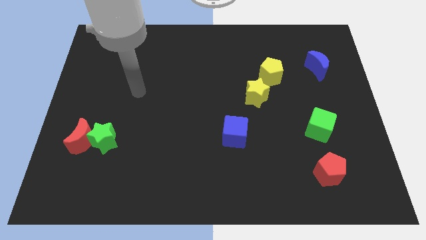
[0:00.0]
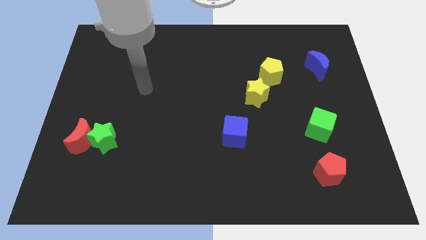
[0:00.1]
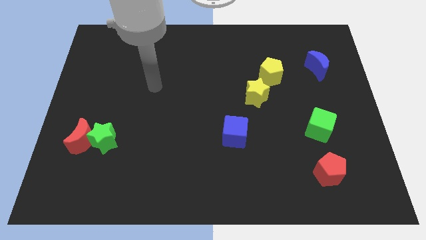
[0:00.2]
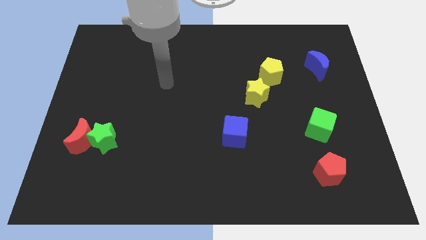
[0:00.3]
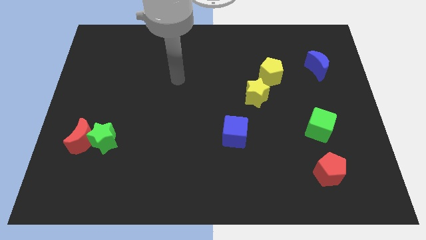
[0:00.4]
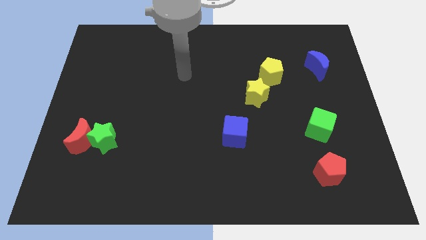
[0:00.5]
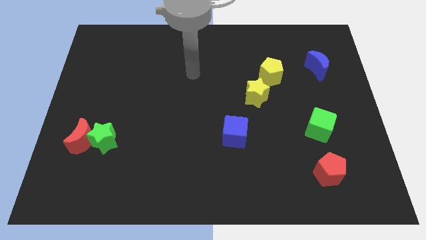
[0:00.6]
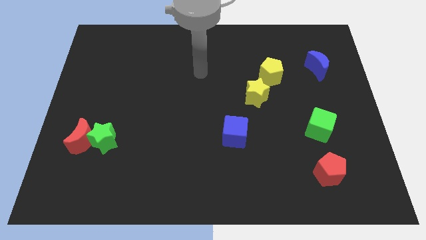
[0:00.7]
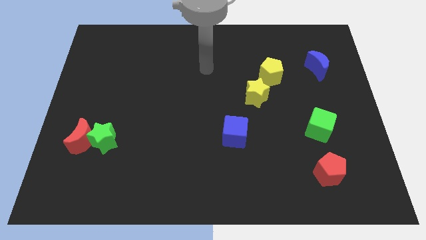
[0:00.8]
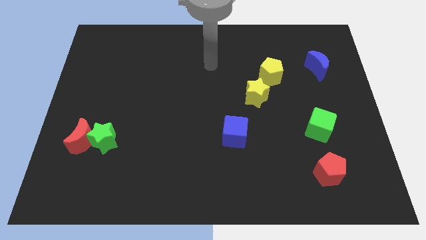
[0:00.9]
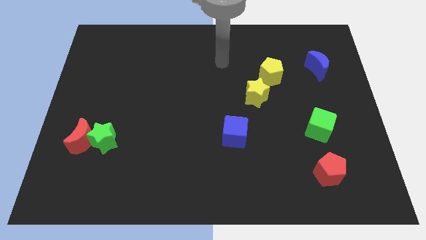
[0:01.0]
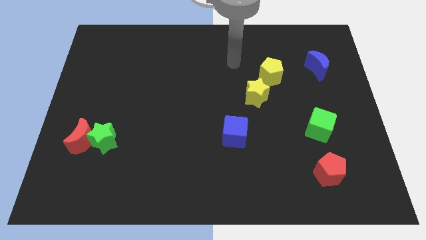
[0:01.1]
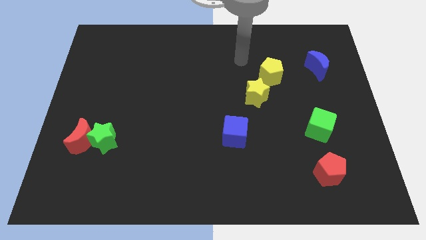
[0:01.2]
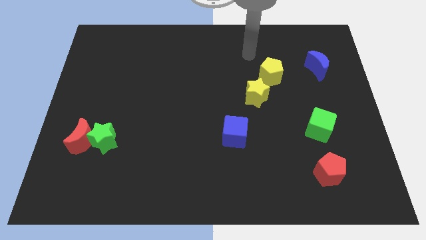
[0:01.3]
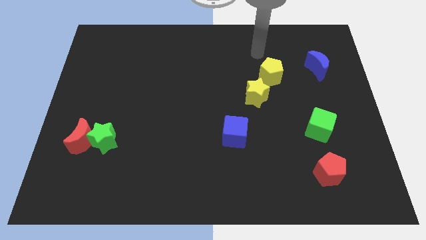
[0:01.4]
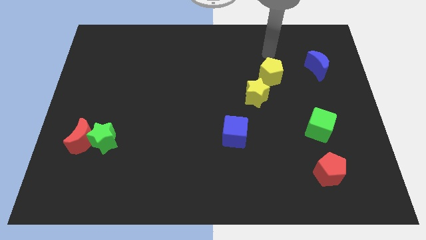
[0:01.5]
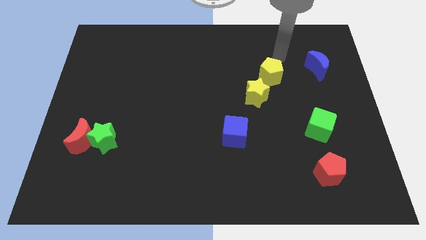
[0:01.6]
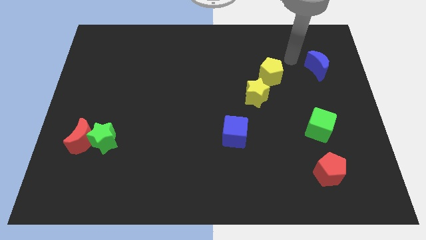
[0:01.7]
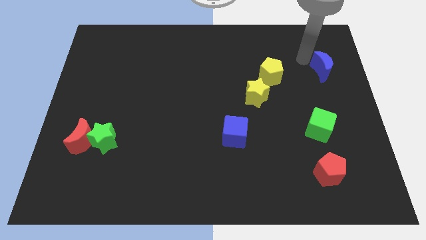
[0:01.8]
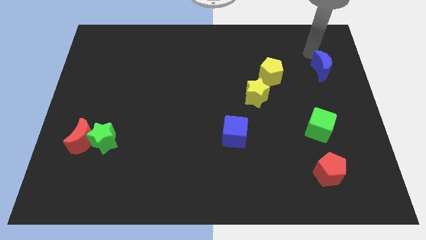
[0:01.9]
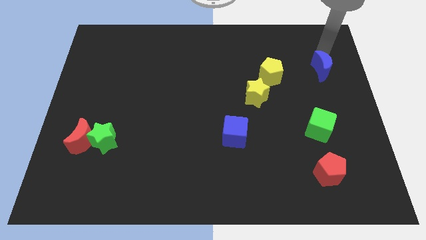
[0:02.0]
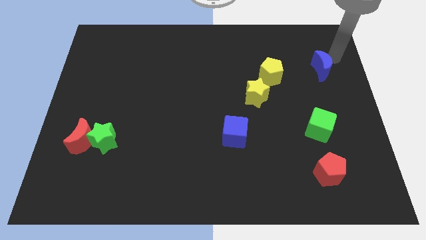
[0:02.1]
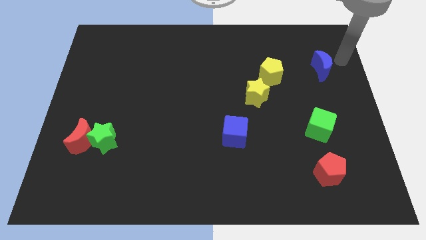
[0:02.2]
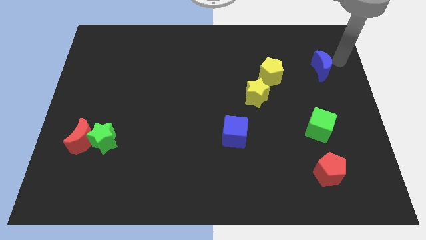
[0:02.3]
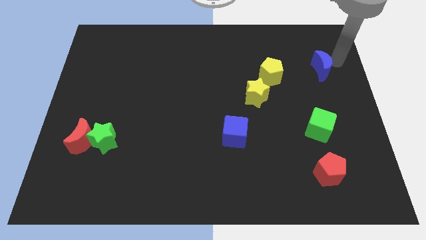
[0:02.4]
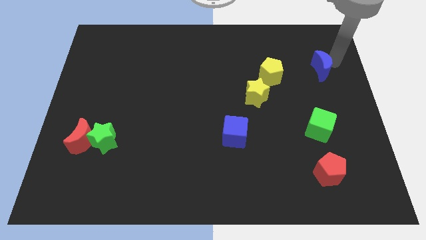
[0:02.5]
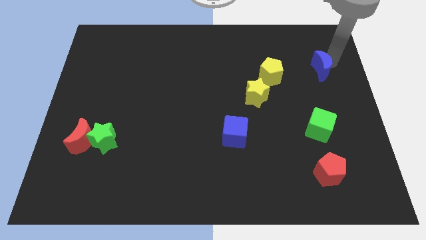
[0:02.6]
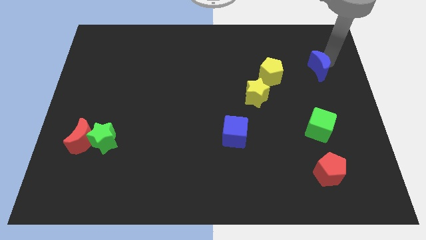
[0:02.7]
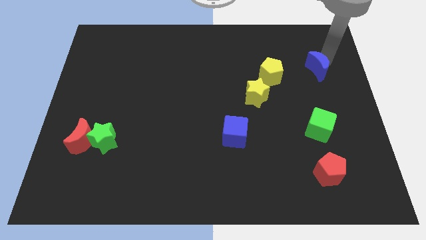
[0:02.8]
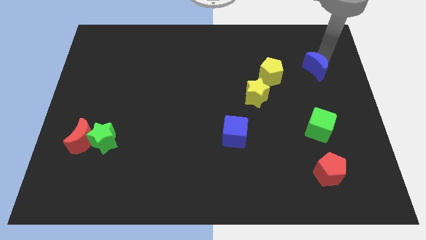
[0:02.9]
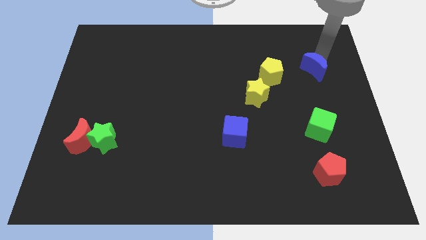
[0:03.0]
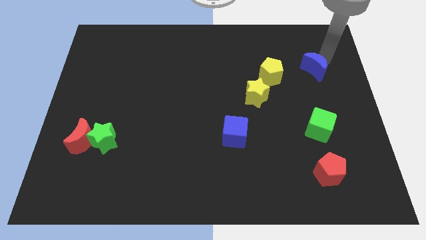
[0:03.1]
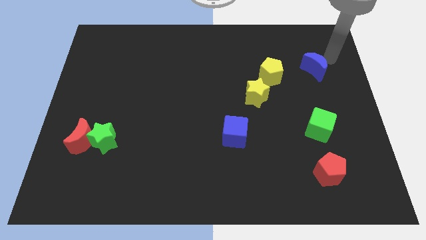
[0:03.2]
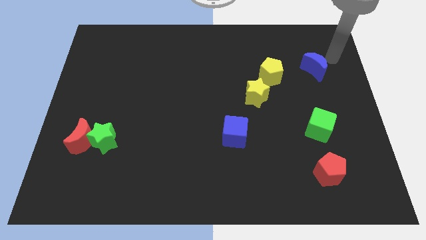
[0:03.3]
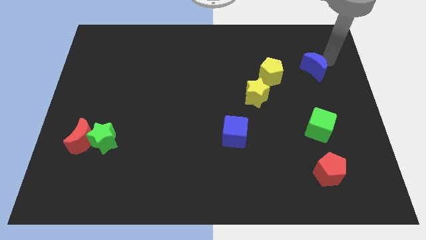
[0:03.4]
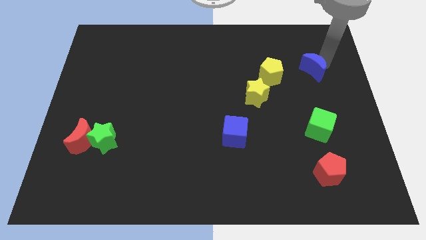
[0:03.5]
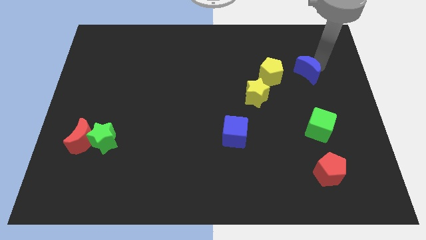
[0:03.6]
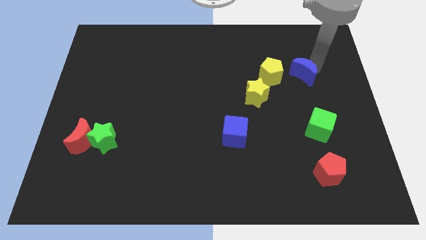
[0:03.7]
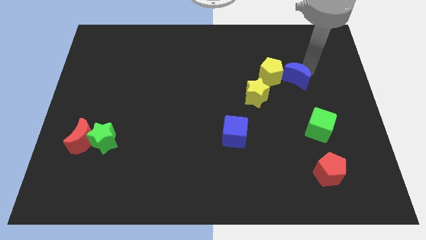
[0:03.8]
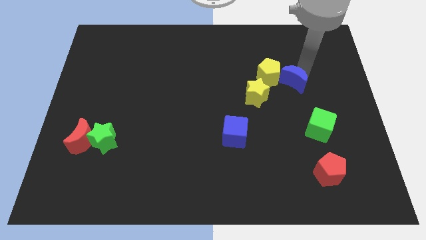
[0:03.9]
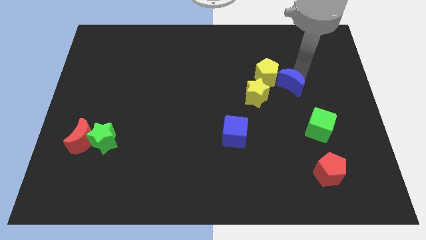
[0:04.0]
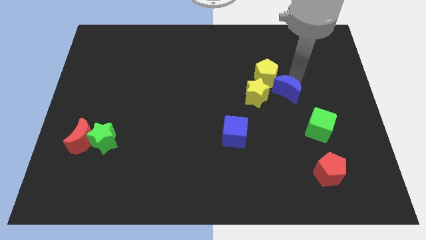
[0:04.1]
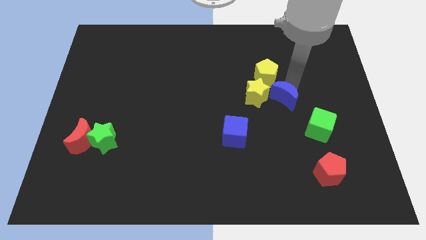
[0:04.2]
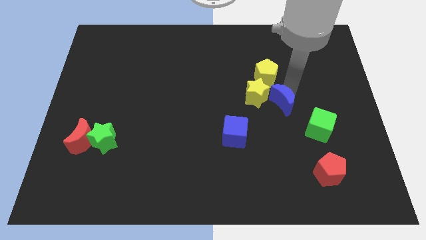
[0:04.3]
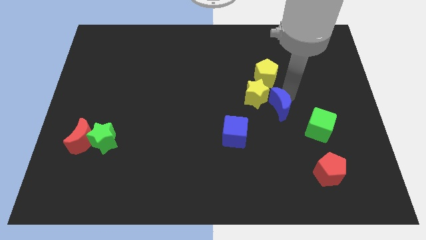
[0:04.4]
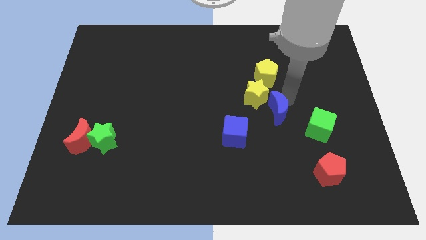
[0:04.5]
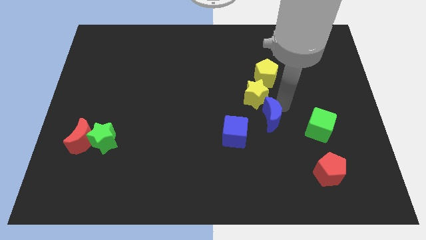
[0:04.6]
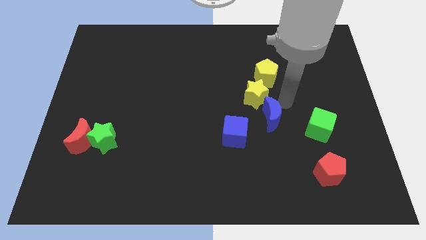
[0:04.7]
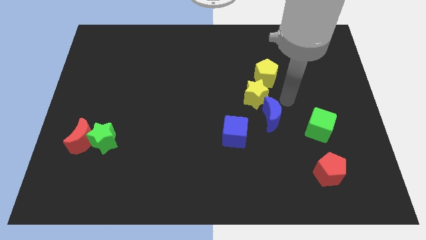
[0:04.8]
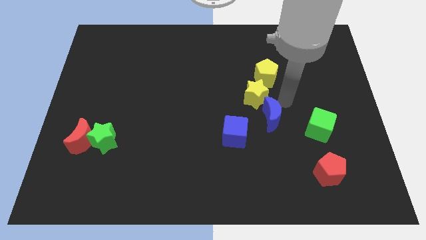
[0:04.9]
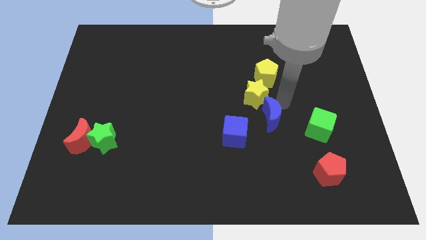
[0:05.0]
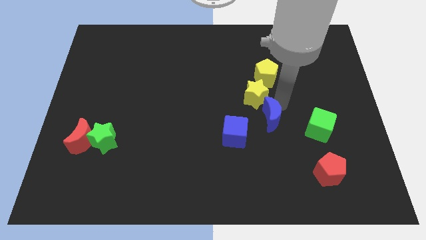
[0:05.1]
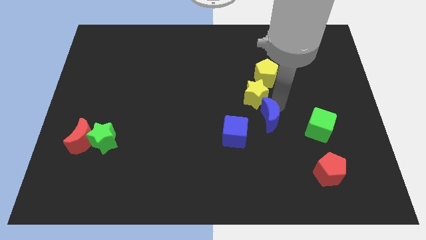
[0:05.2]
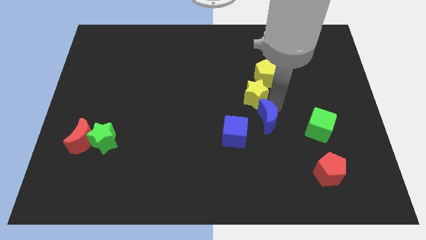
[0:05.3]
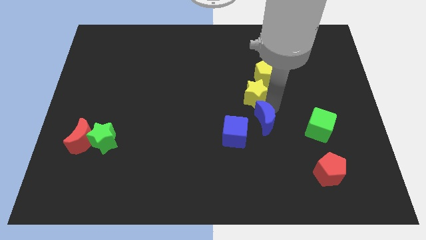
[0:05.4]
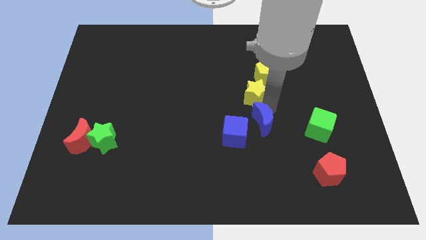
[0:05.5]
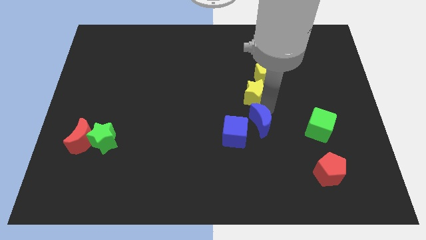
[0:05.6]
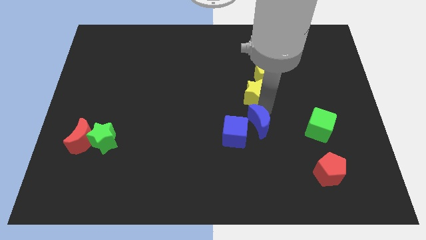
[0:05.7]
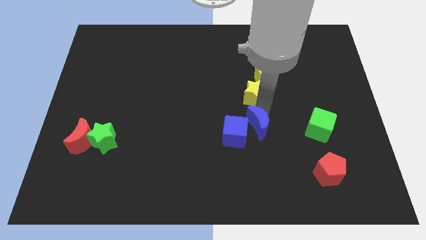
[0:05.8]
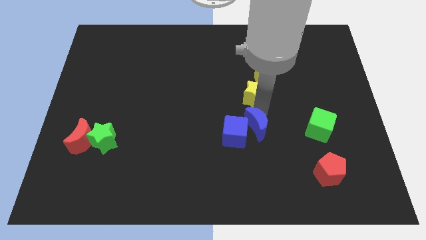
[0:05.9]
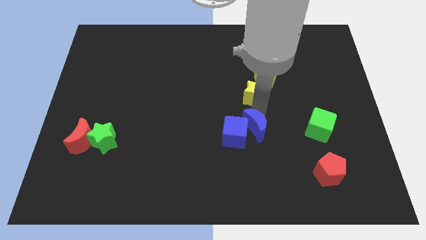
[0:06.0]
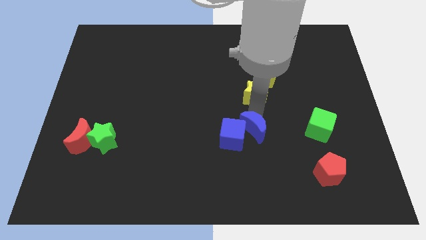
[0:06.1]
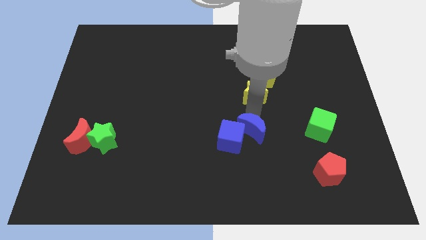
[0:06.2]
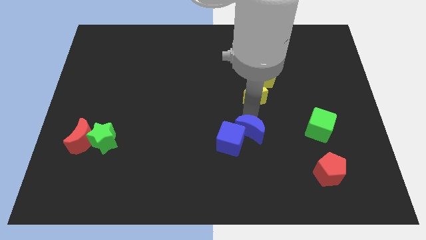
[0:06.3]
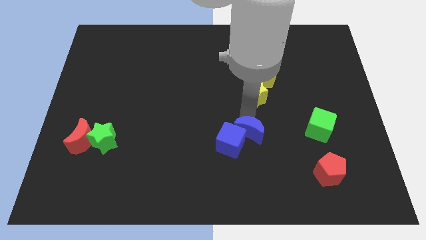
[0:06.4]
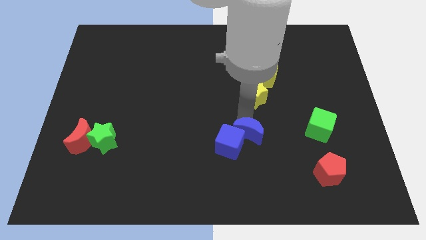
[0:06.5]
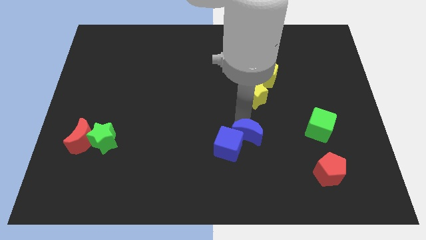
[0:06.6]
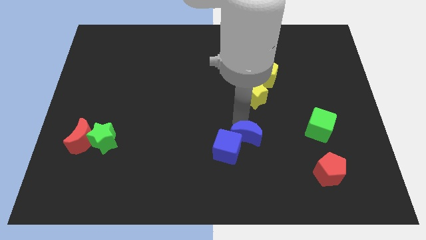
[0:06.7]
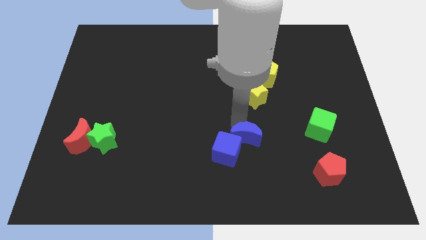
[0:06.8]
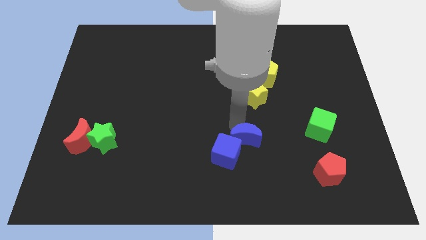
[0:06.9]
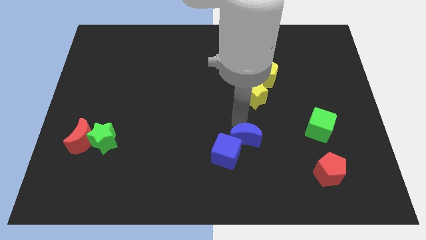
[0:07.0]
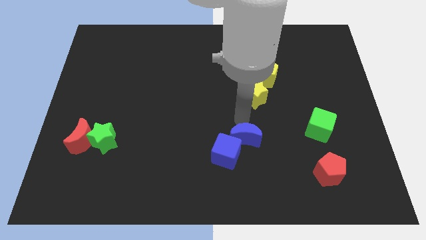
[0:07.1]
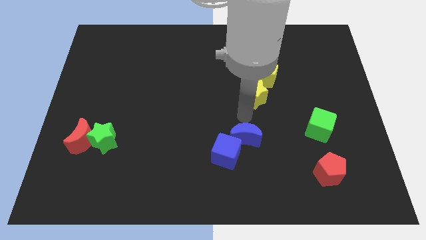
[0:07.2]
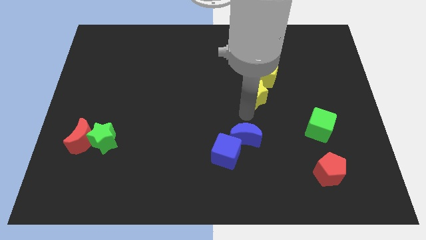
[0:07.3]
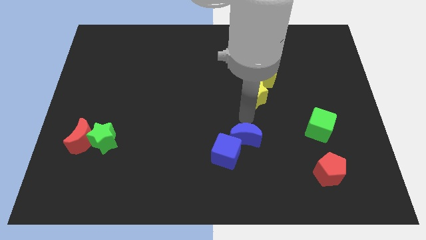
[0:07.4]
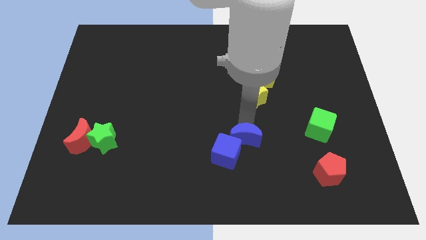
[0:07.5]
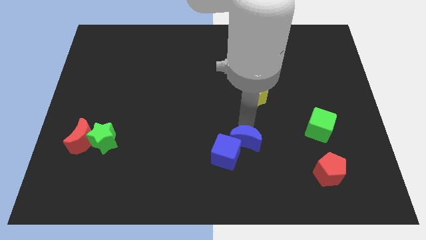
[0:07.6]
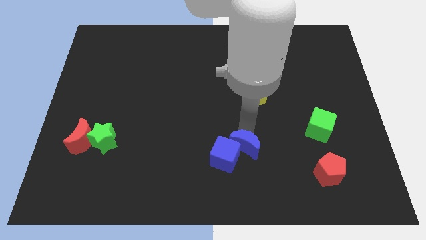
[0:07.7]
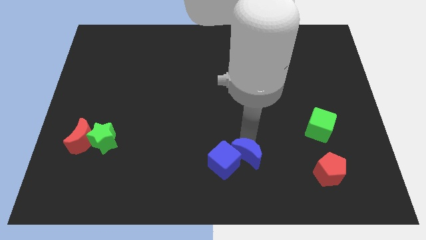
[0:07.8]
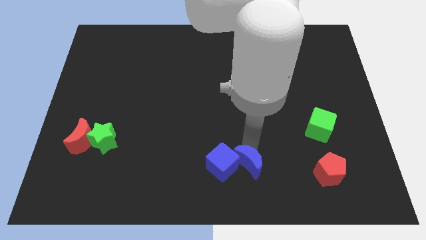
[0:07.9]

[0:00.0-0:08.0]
put the blue moon to the bottom
